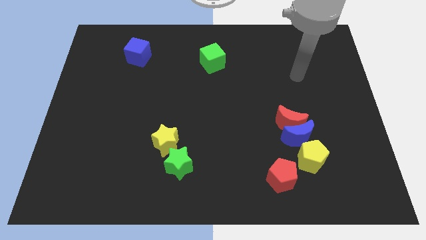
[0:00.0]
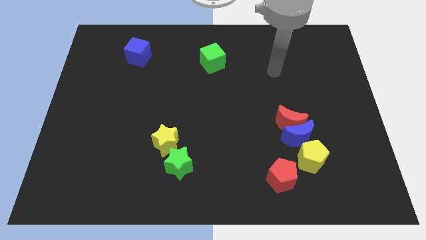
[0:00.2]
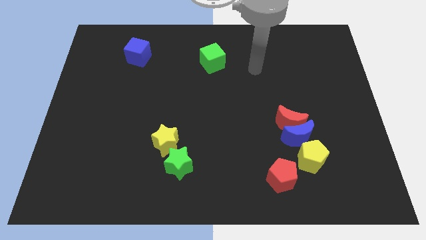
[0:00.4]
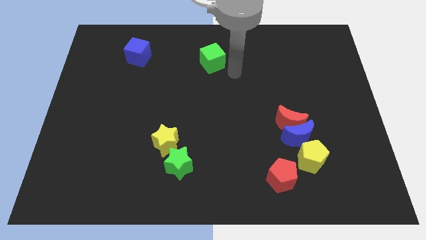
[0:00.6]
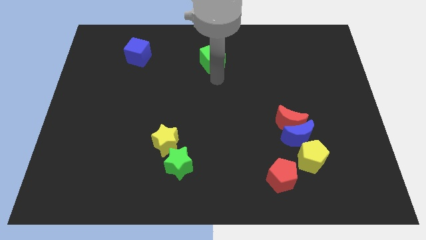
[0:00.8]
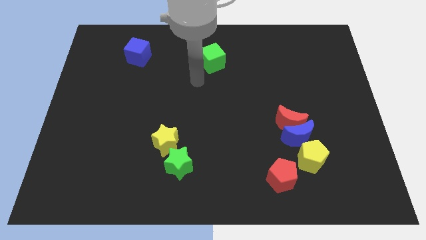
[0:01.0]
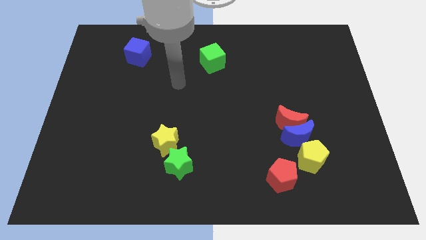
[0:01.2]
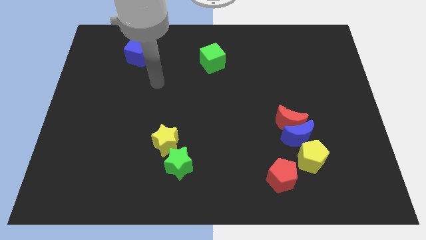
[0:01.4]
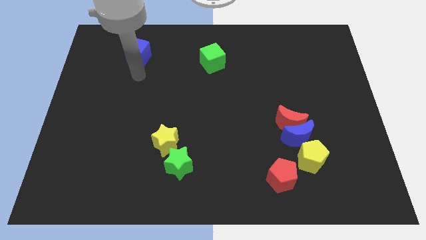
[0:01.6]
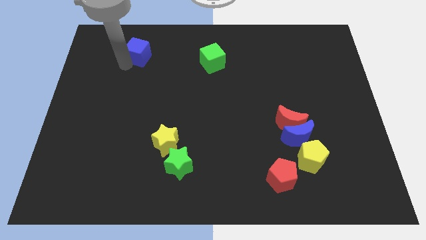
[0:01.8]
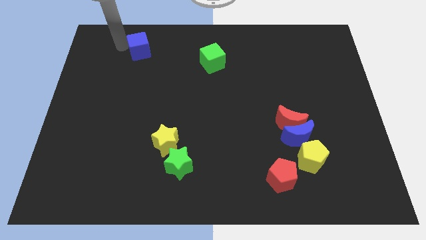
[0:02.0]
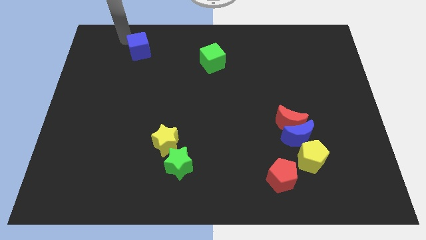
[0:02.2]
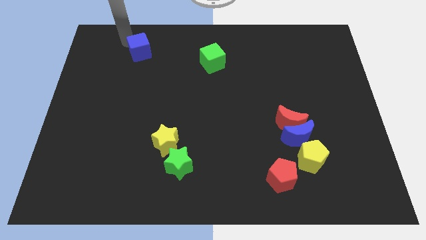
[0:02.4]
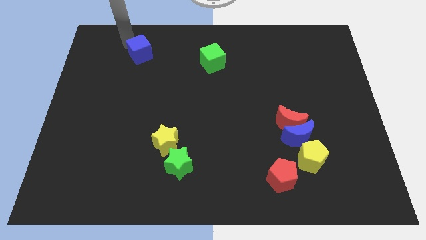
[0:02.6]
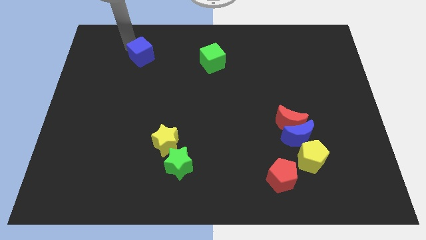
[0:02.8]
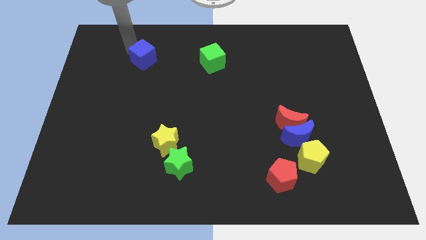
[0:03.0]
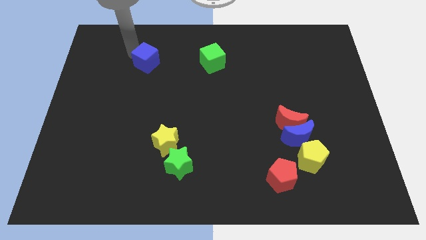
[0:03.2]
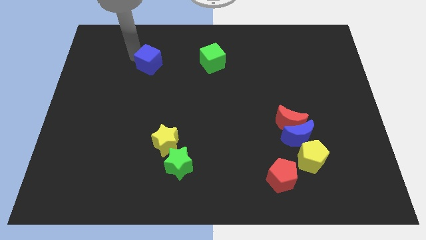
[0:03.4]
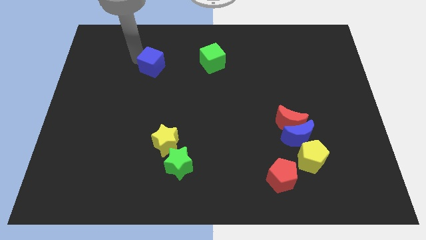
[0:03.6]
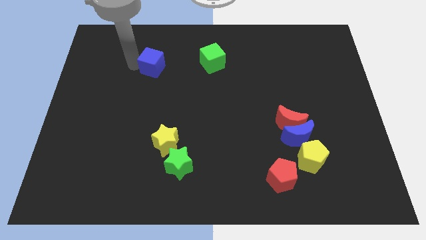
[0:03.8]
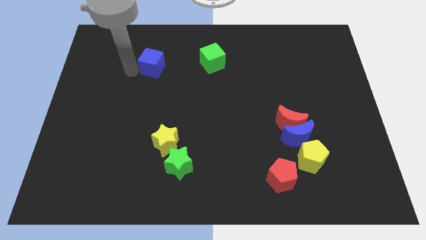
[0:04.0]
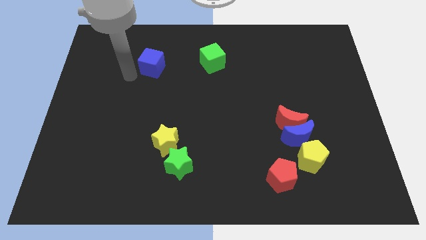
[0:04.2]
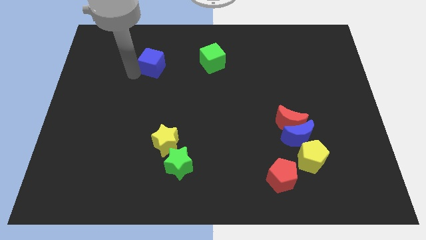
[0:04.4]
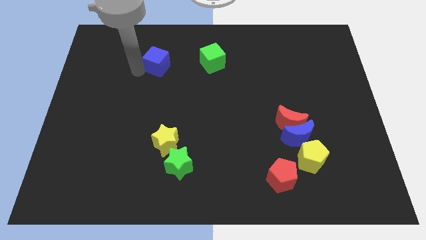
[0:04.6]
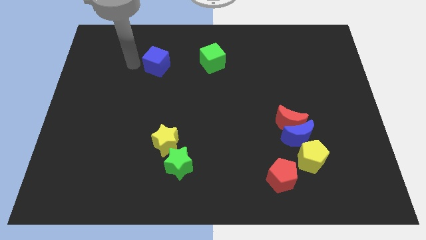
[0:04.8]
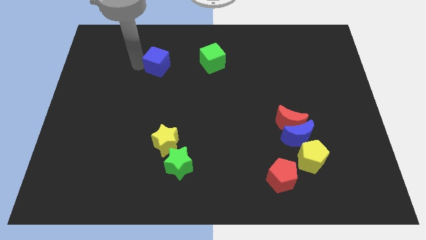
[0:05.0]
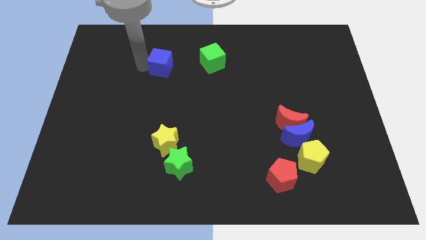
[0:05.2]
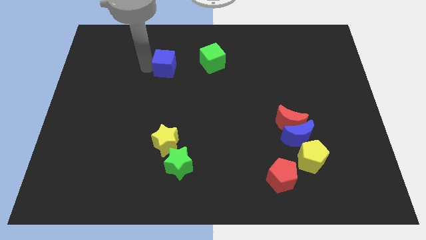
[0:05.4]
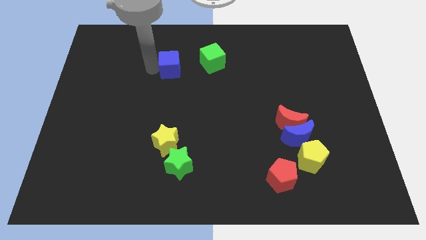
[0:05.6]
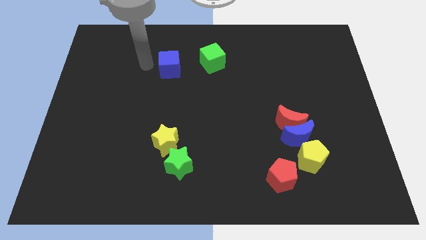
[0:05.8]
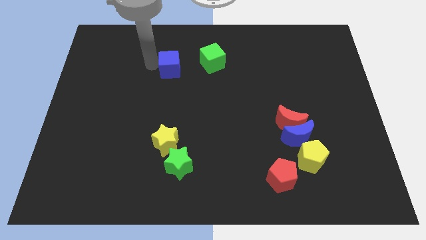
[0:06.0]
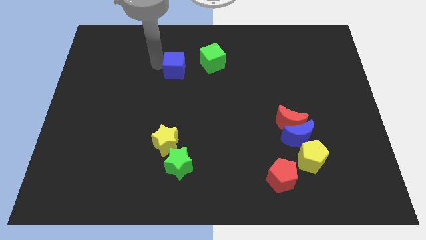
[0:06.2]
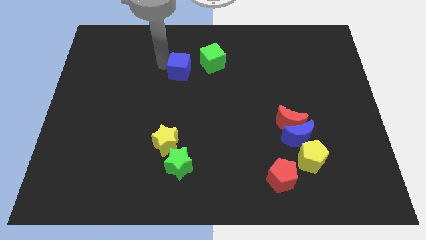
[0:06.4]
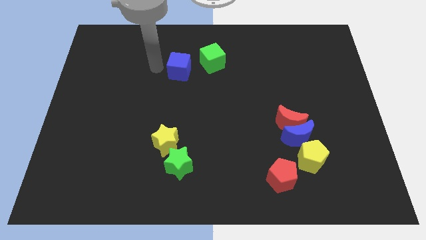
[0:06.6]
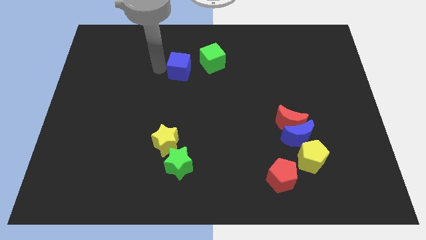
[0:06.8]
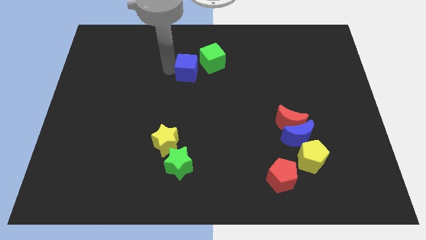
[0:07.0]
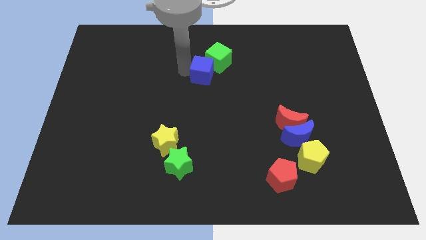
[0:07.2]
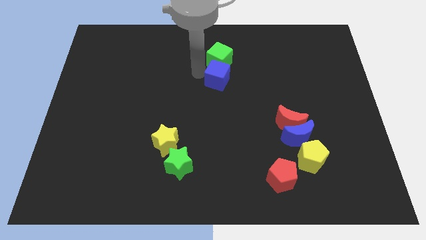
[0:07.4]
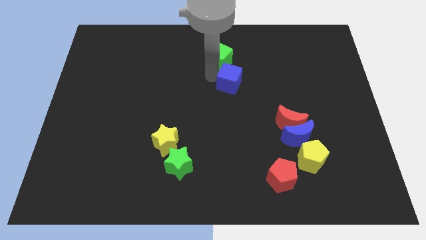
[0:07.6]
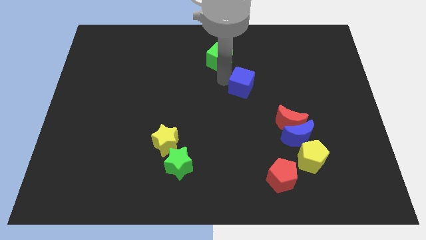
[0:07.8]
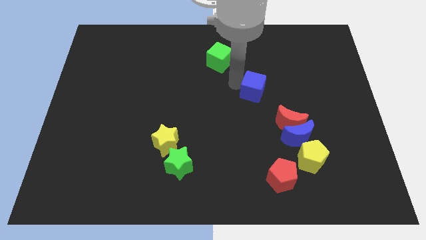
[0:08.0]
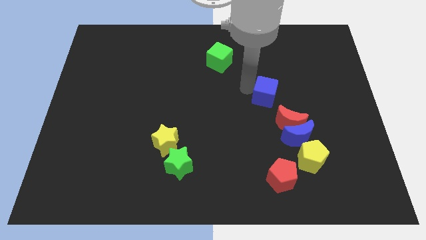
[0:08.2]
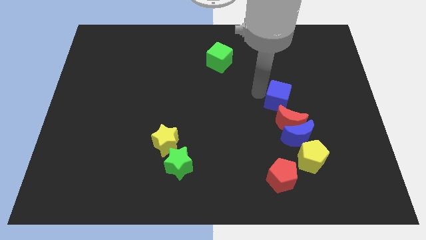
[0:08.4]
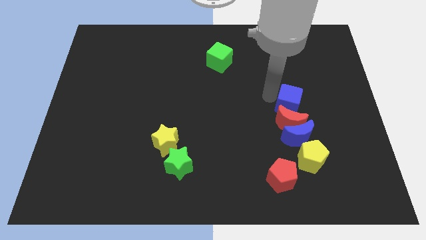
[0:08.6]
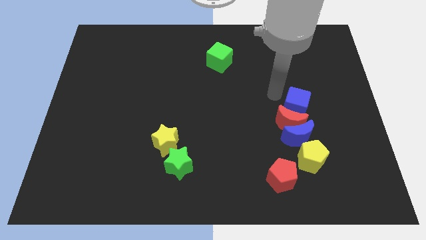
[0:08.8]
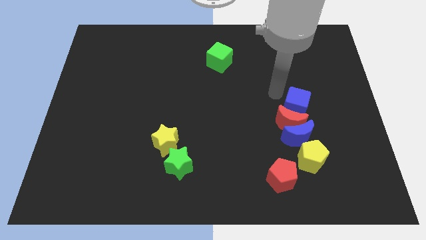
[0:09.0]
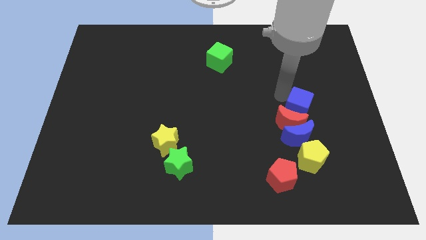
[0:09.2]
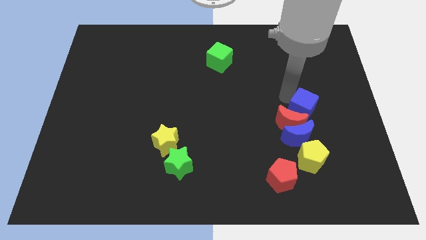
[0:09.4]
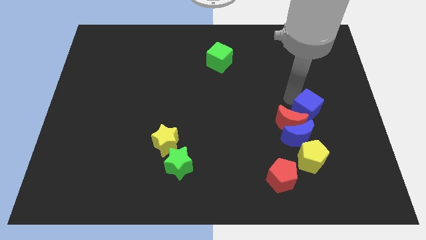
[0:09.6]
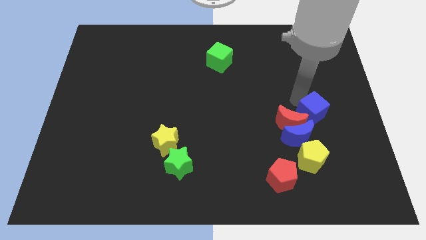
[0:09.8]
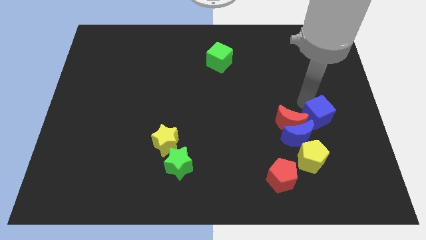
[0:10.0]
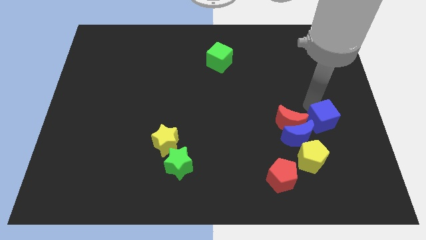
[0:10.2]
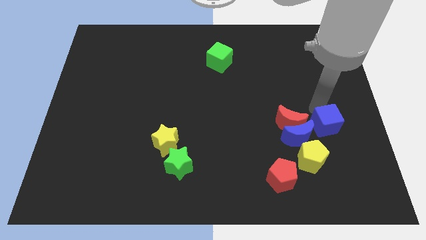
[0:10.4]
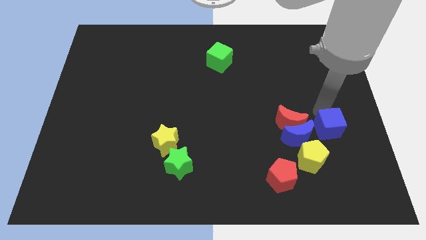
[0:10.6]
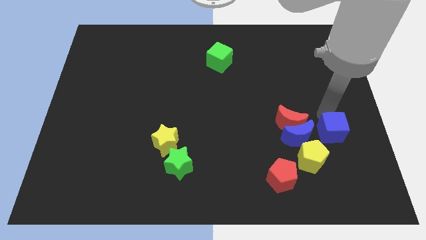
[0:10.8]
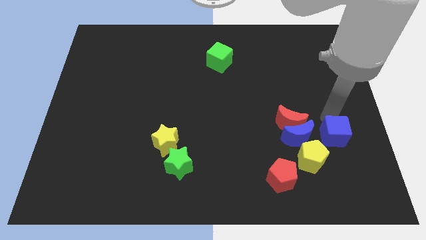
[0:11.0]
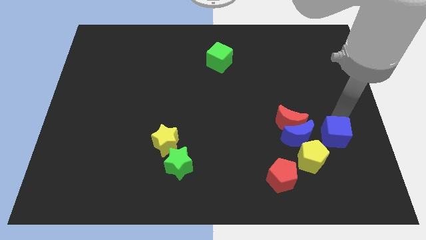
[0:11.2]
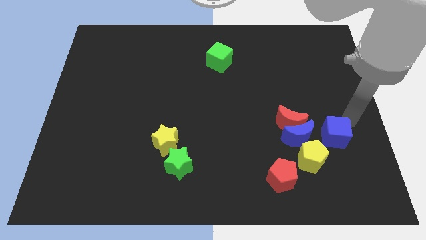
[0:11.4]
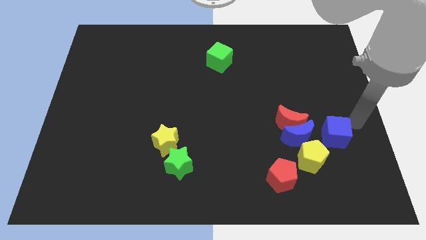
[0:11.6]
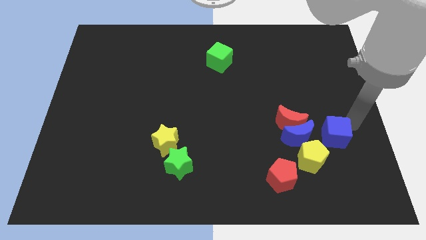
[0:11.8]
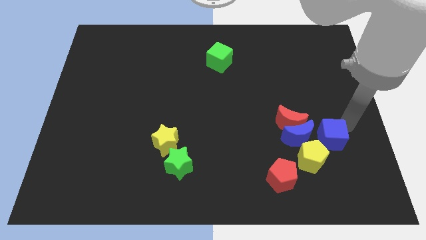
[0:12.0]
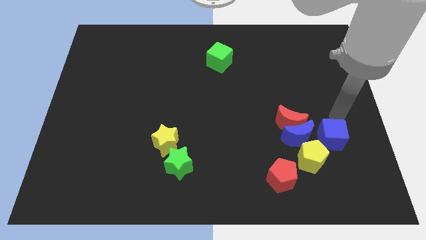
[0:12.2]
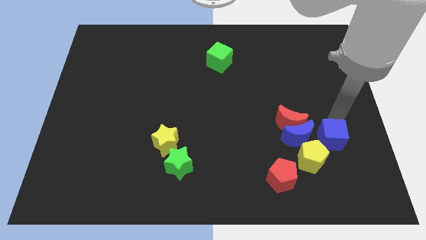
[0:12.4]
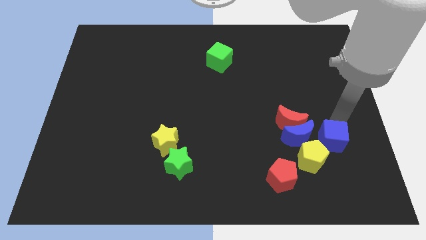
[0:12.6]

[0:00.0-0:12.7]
slide the blue cube to the bottom right side of the blue moon

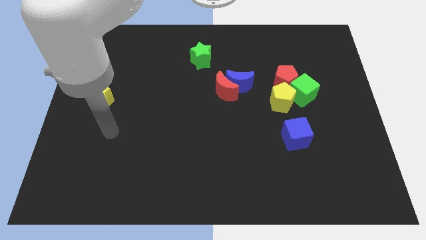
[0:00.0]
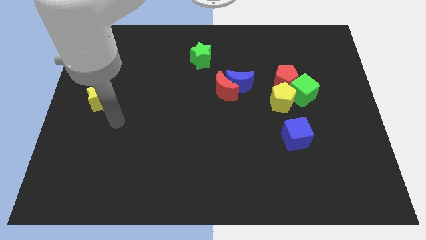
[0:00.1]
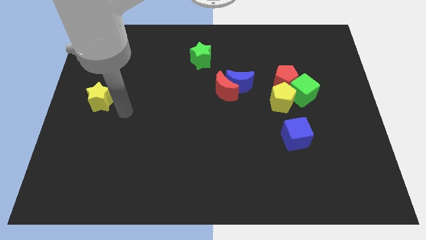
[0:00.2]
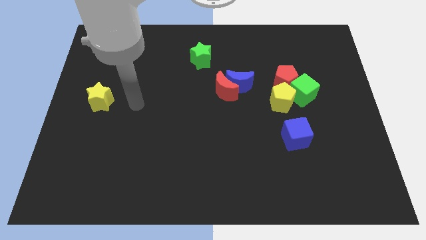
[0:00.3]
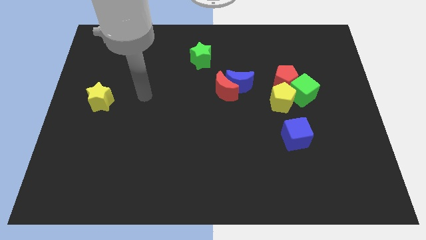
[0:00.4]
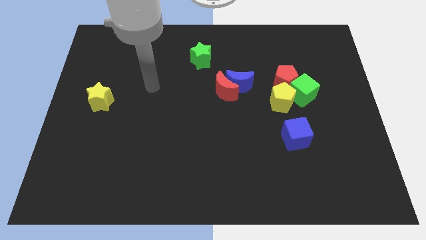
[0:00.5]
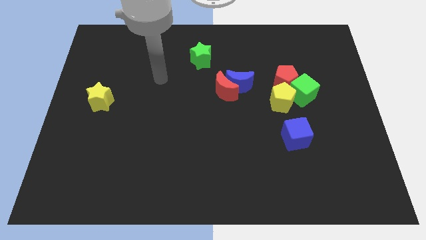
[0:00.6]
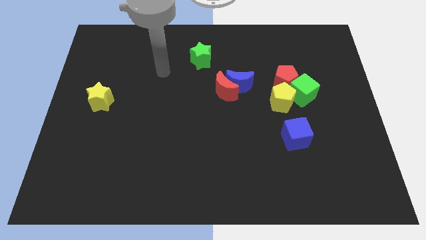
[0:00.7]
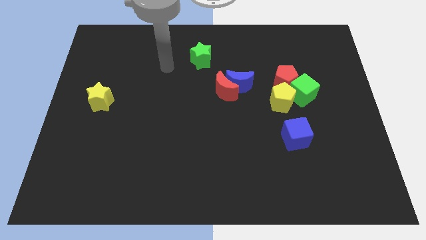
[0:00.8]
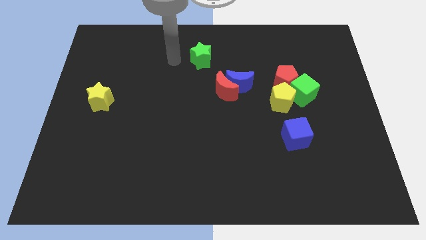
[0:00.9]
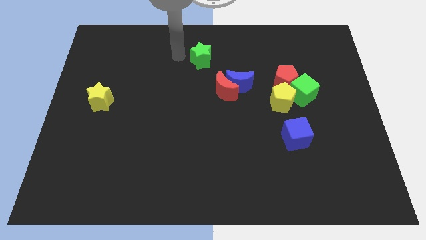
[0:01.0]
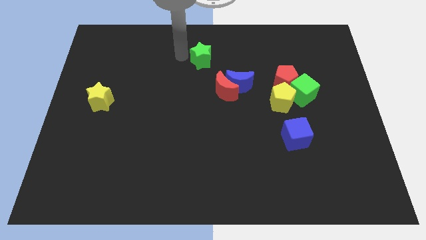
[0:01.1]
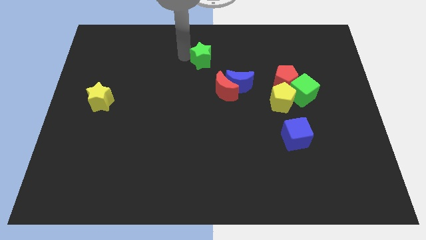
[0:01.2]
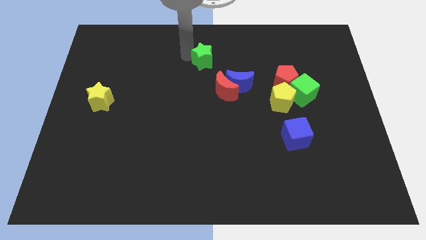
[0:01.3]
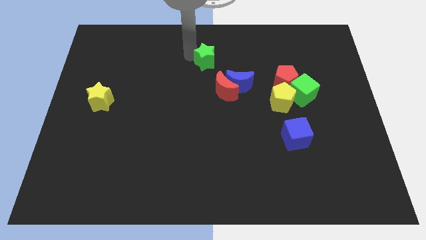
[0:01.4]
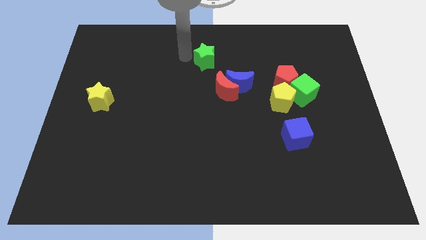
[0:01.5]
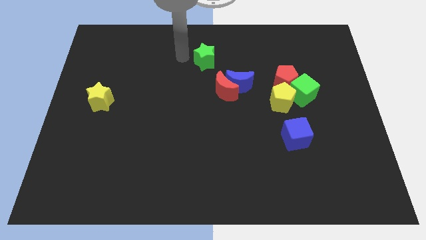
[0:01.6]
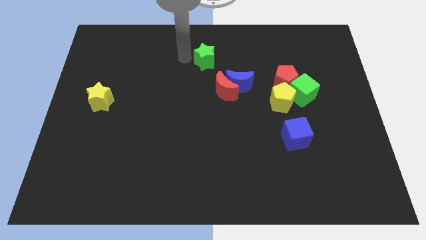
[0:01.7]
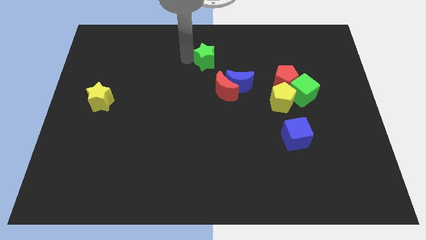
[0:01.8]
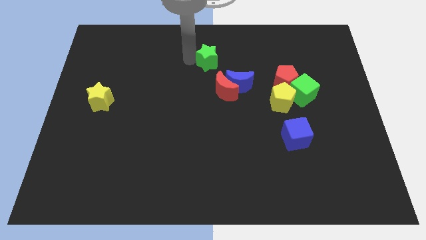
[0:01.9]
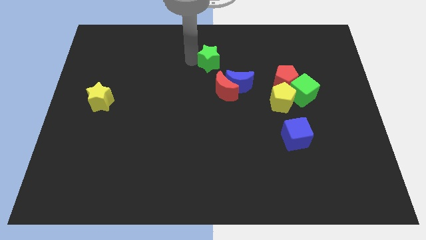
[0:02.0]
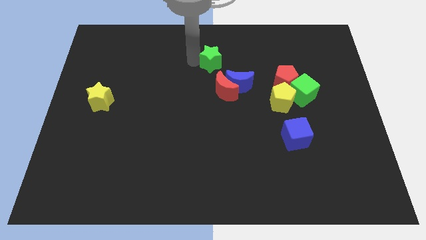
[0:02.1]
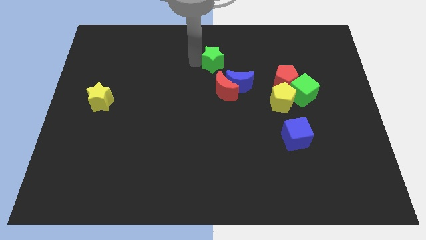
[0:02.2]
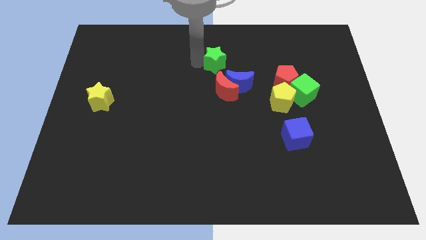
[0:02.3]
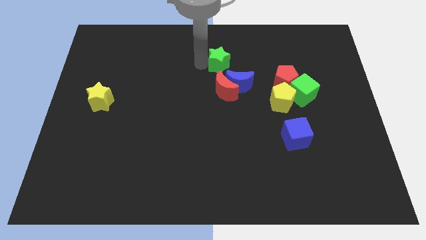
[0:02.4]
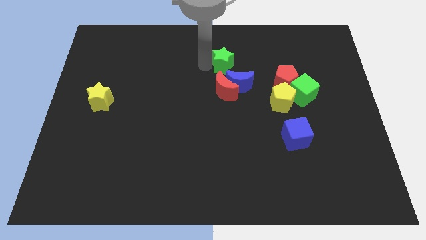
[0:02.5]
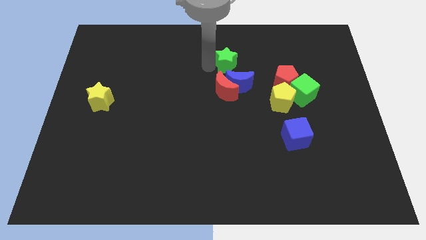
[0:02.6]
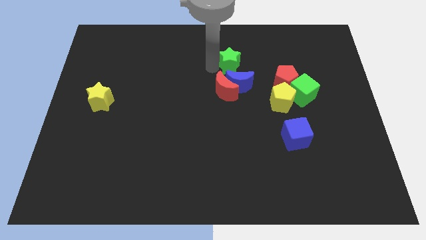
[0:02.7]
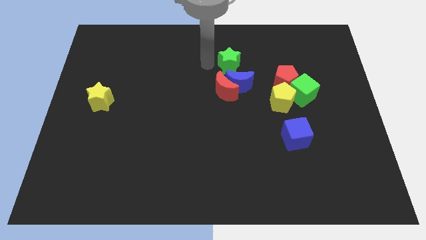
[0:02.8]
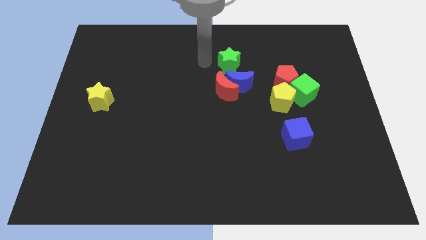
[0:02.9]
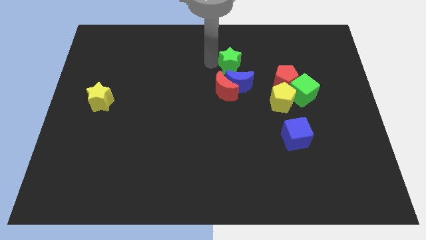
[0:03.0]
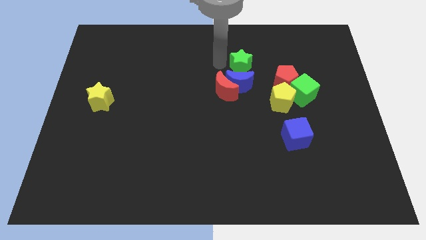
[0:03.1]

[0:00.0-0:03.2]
move the green star to the top left of the red pentagon
